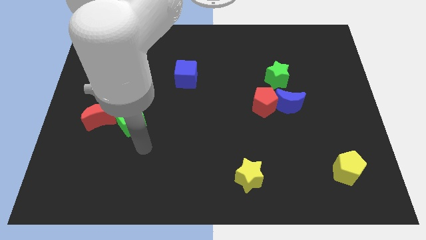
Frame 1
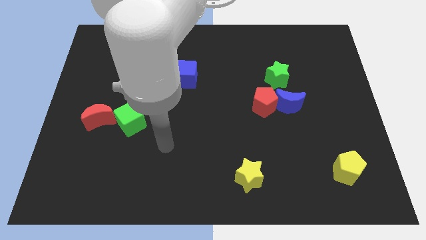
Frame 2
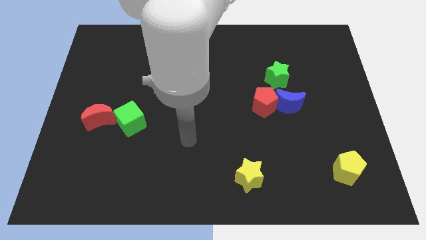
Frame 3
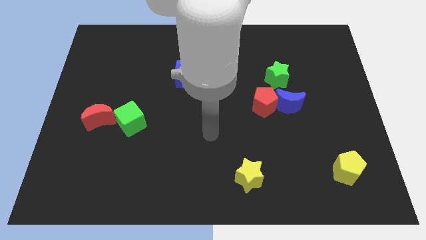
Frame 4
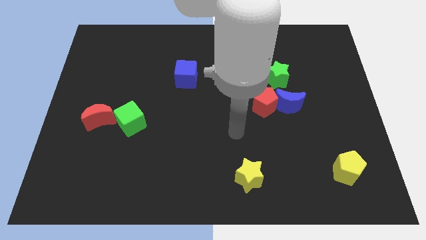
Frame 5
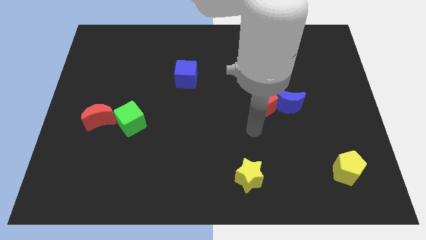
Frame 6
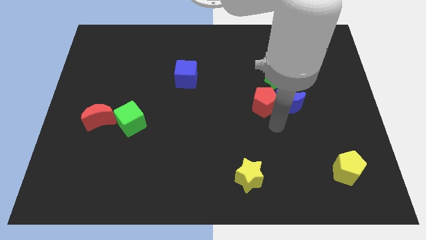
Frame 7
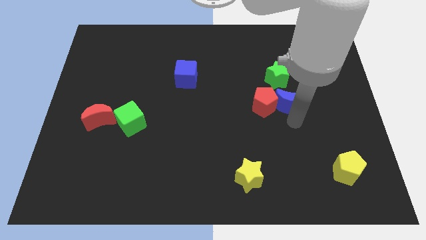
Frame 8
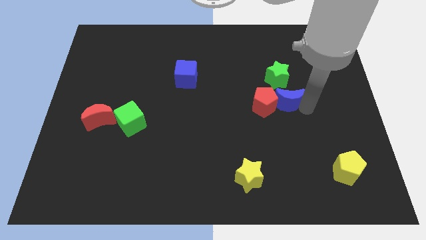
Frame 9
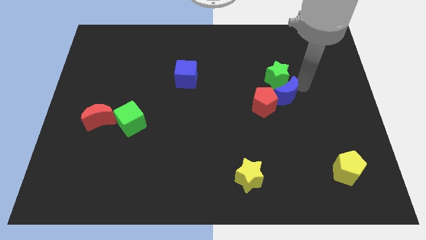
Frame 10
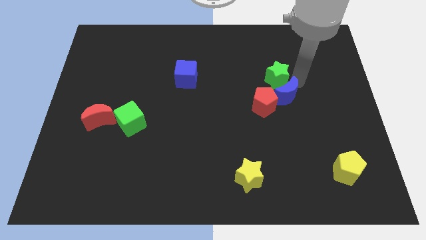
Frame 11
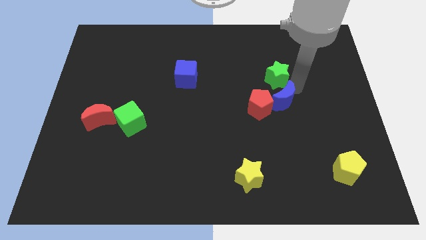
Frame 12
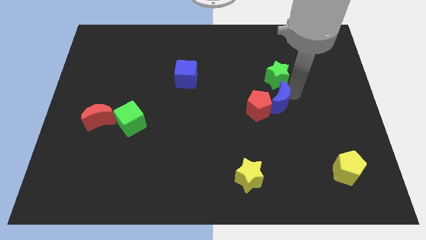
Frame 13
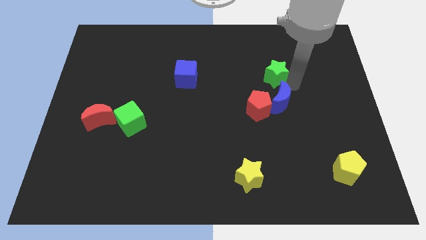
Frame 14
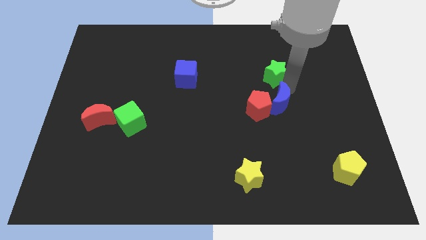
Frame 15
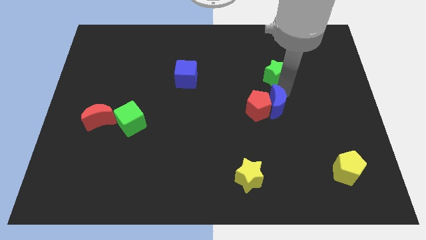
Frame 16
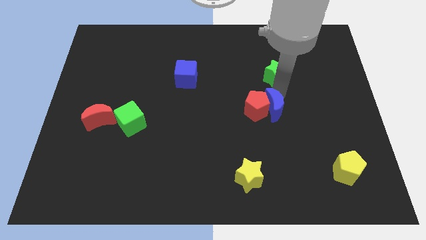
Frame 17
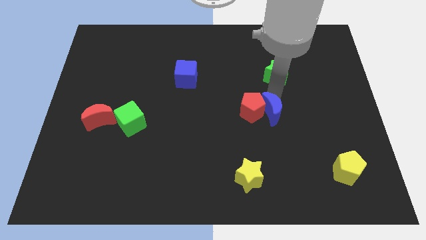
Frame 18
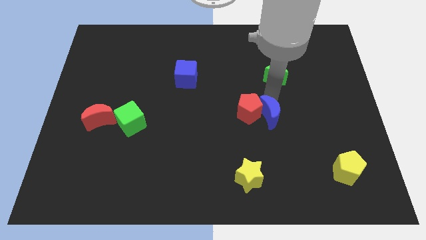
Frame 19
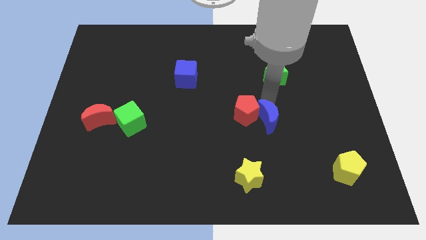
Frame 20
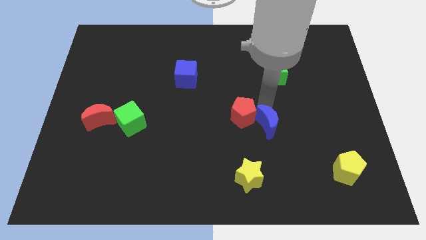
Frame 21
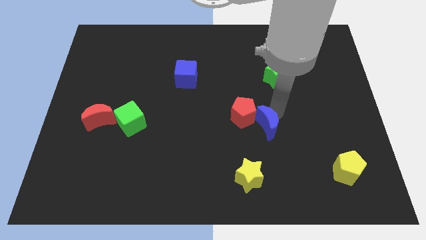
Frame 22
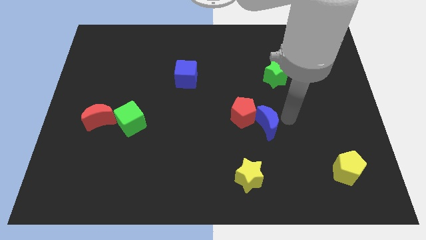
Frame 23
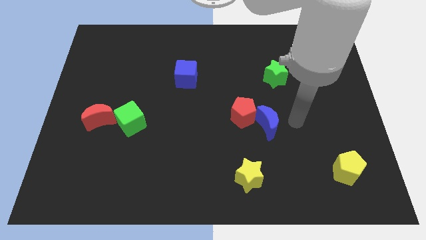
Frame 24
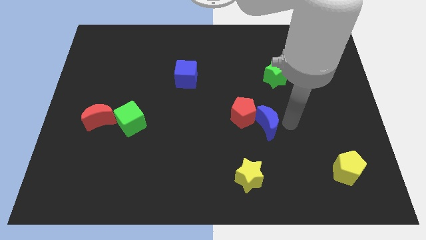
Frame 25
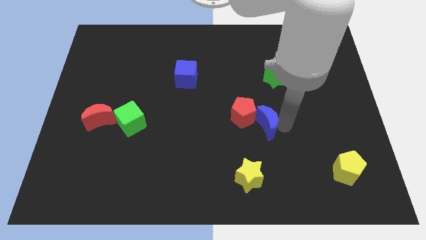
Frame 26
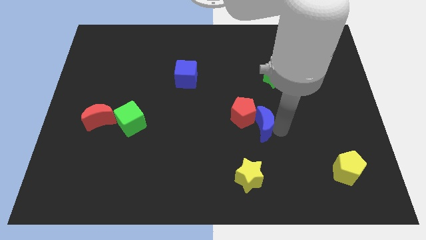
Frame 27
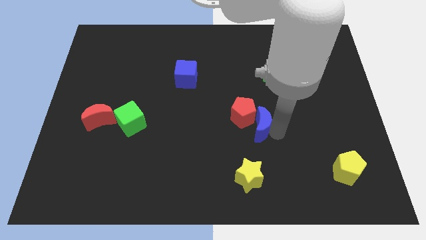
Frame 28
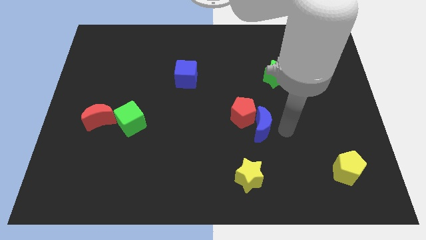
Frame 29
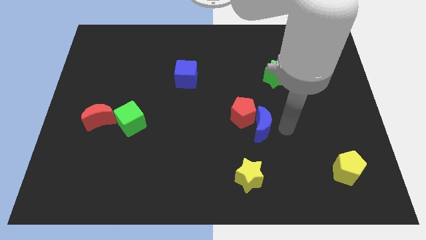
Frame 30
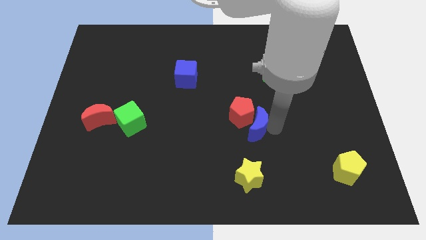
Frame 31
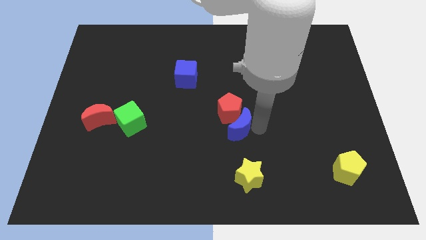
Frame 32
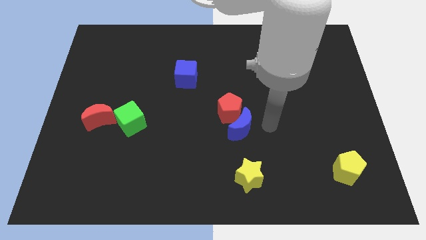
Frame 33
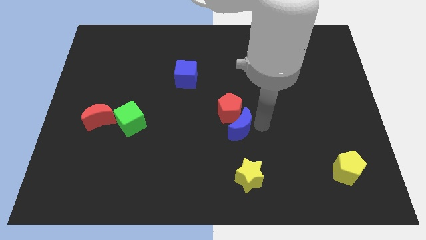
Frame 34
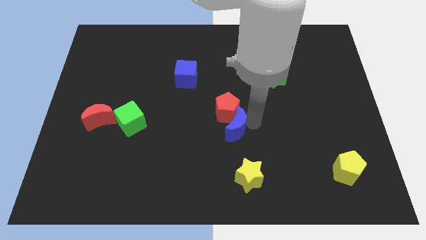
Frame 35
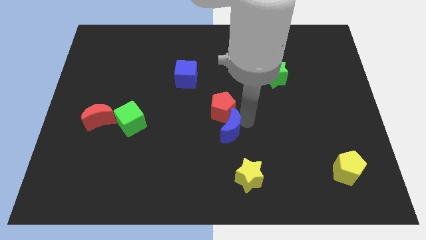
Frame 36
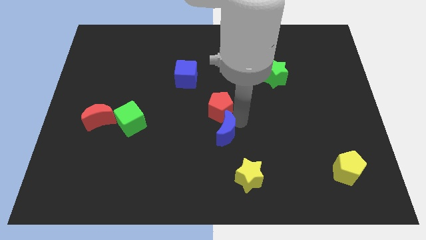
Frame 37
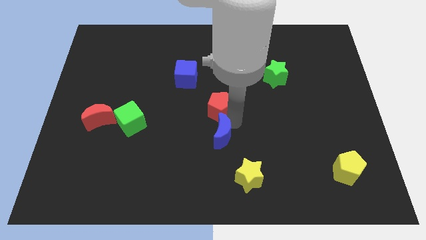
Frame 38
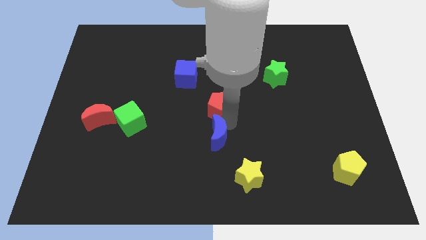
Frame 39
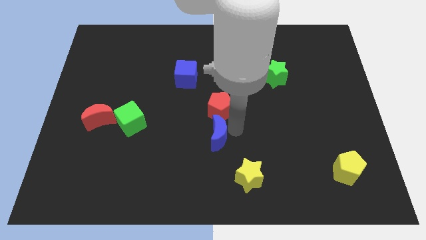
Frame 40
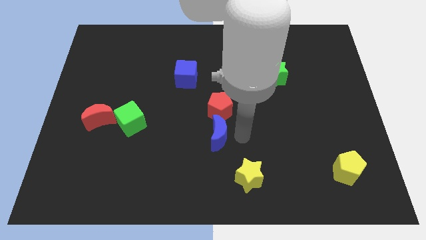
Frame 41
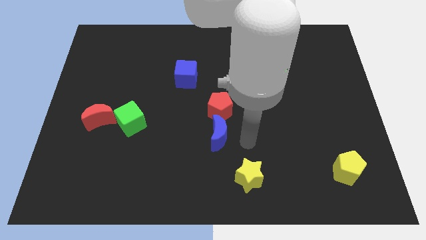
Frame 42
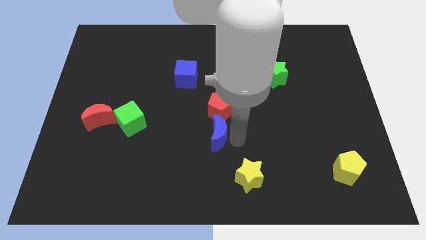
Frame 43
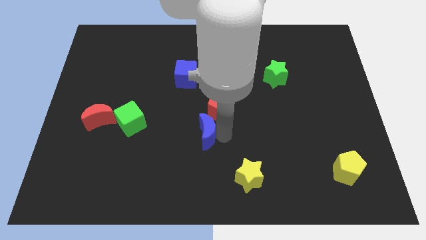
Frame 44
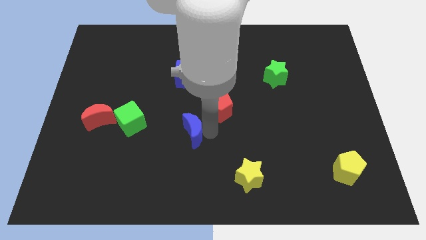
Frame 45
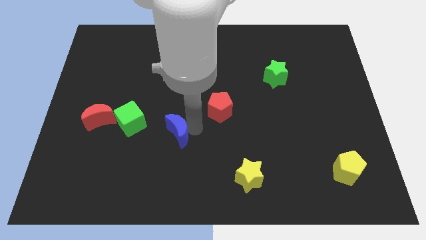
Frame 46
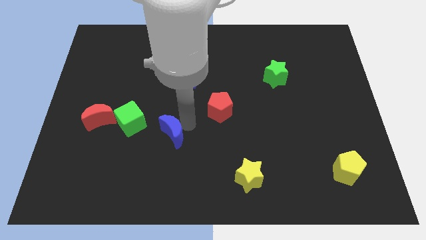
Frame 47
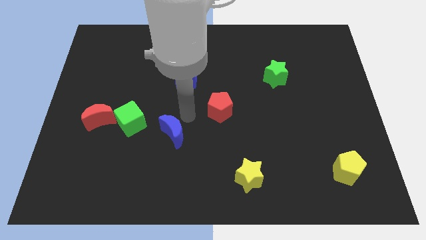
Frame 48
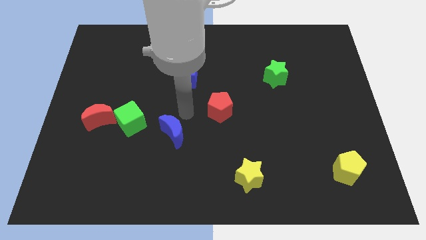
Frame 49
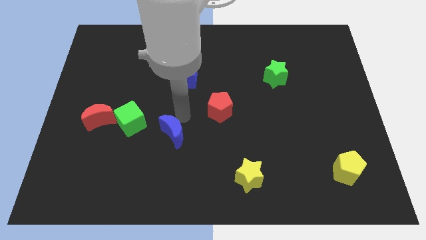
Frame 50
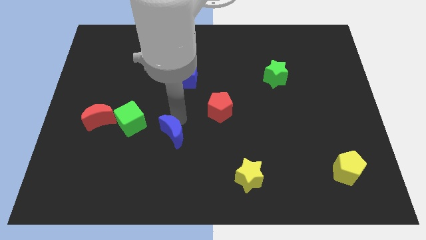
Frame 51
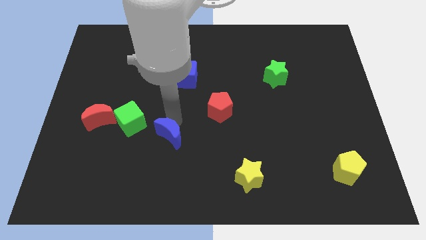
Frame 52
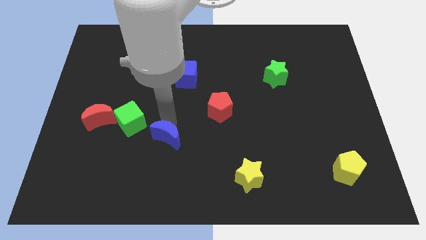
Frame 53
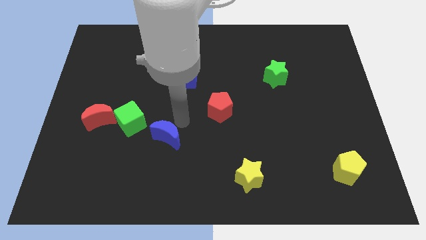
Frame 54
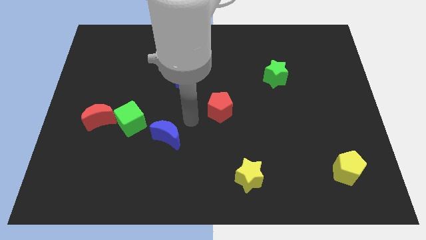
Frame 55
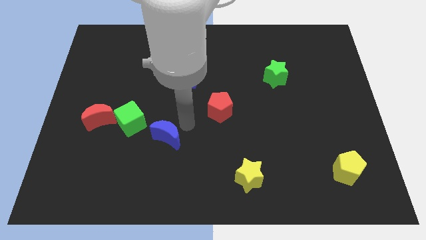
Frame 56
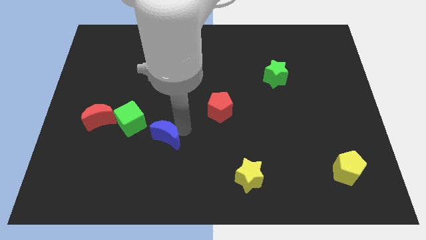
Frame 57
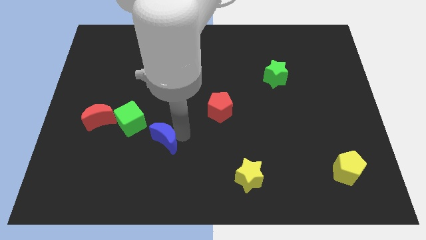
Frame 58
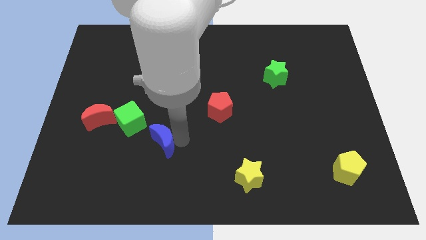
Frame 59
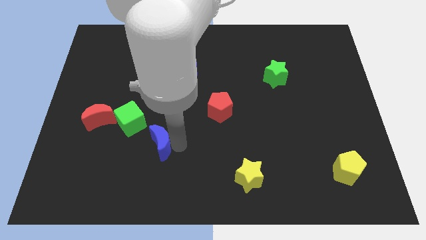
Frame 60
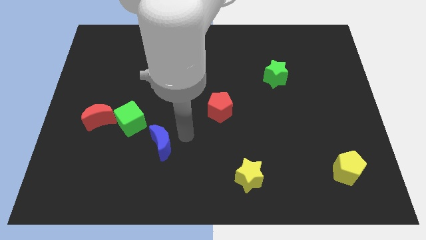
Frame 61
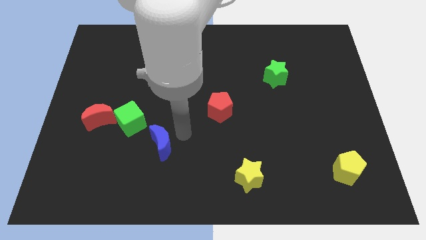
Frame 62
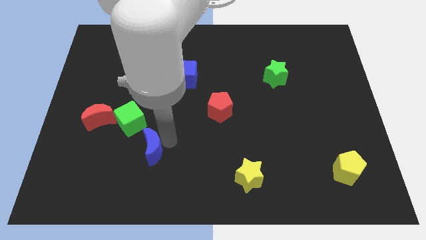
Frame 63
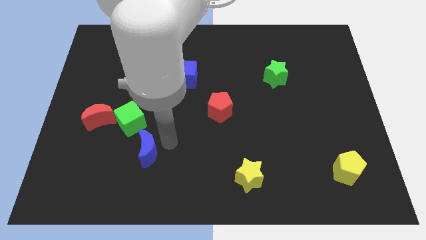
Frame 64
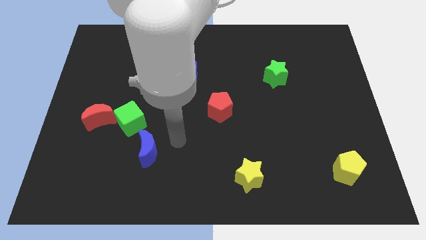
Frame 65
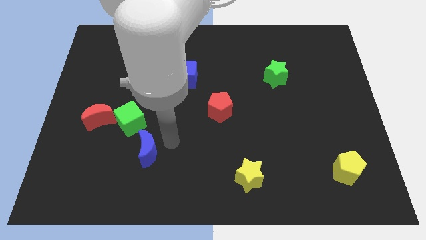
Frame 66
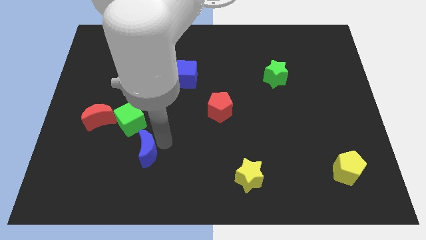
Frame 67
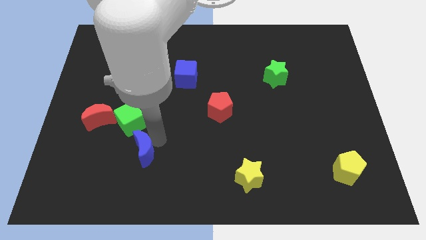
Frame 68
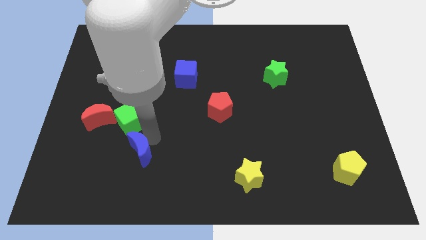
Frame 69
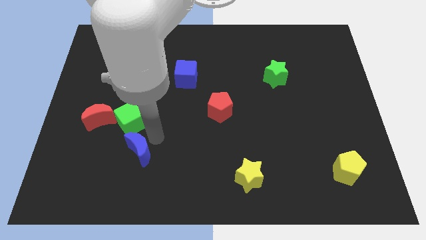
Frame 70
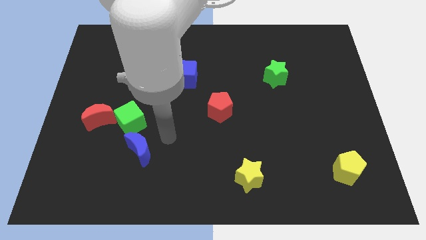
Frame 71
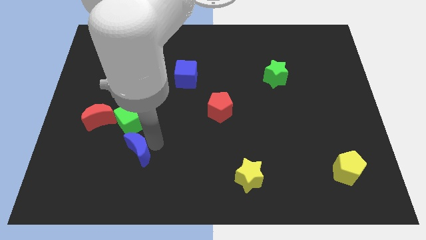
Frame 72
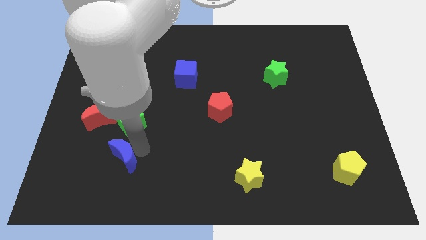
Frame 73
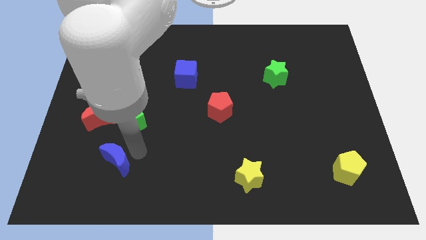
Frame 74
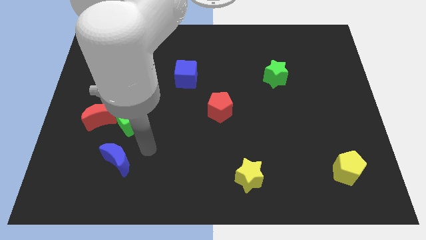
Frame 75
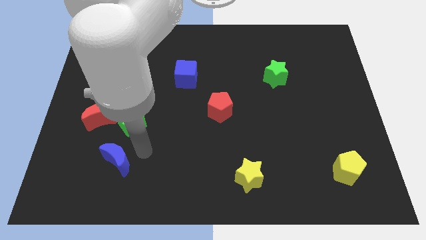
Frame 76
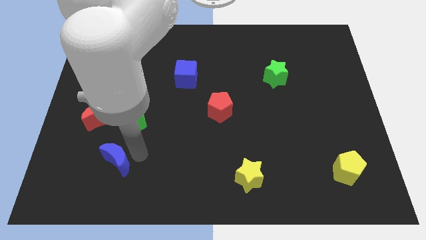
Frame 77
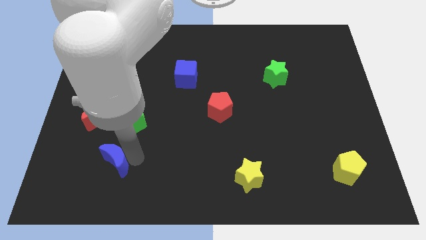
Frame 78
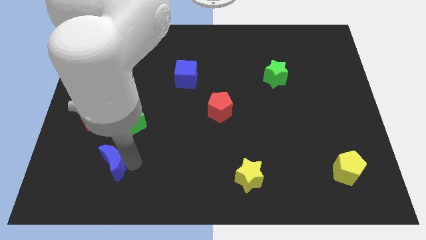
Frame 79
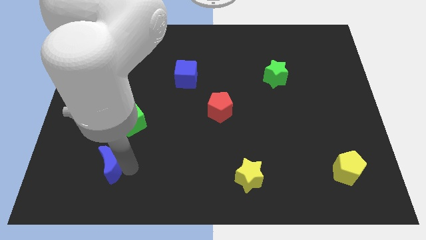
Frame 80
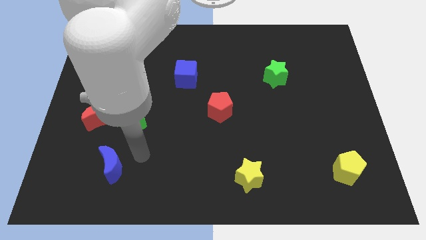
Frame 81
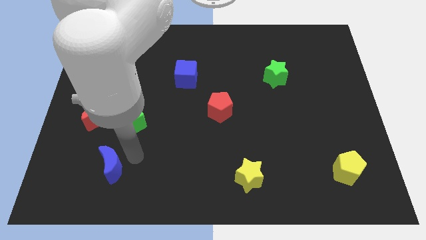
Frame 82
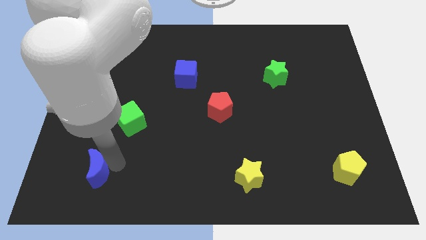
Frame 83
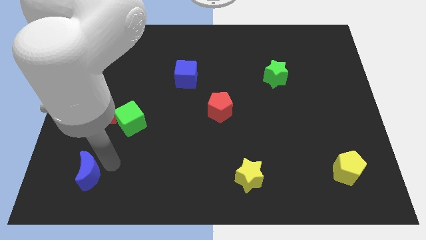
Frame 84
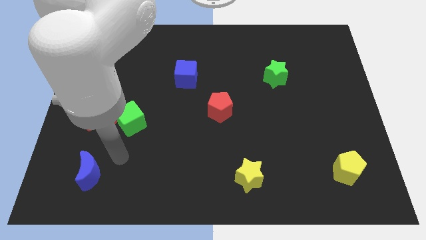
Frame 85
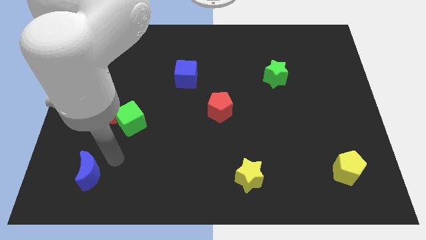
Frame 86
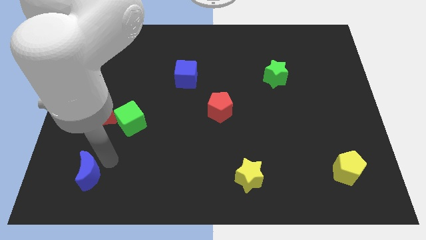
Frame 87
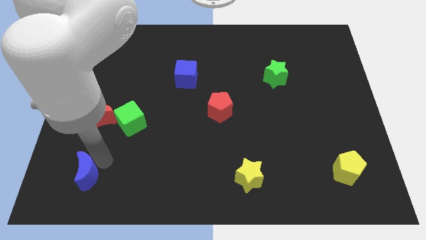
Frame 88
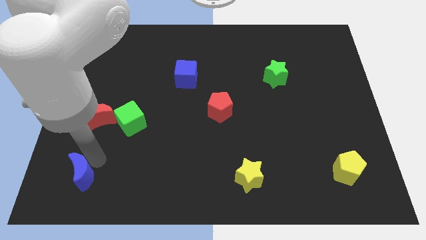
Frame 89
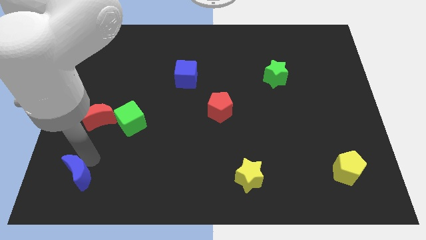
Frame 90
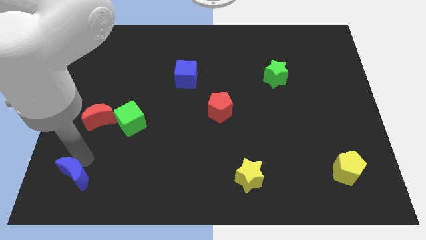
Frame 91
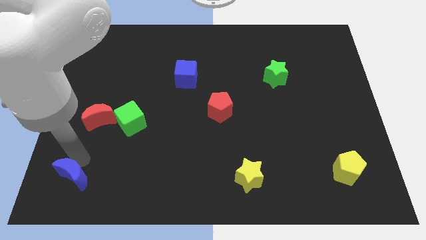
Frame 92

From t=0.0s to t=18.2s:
push the blue moon to the bottom left corner
